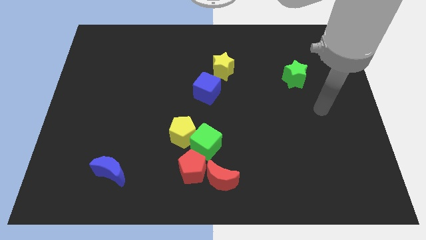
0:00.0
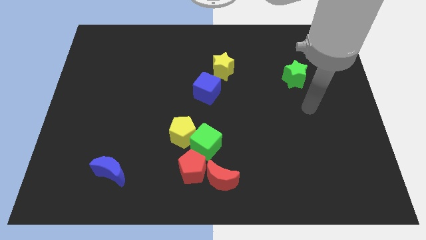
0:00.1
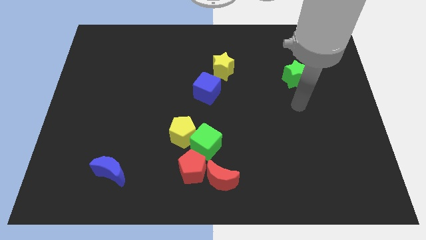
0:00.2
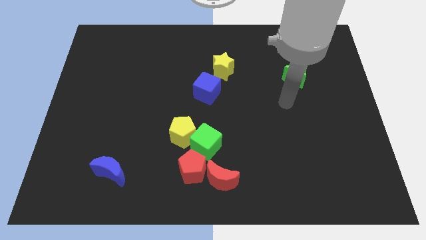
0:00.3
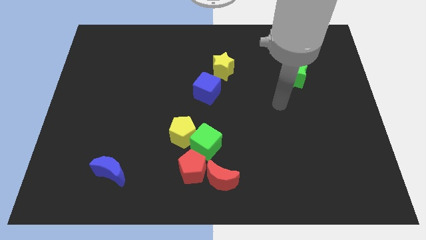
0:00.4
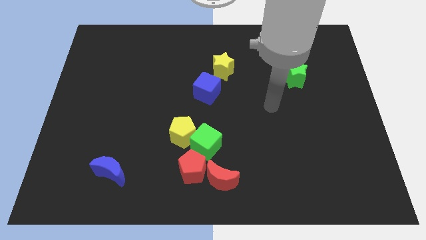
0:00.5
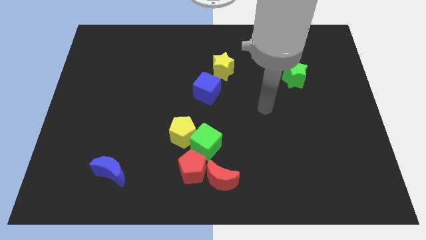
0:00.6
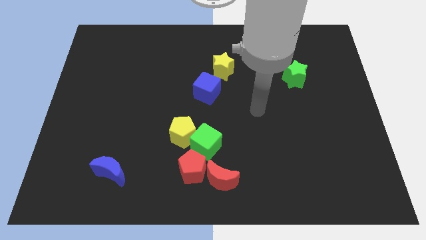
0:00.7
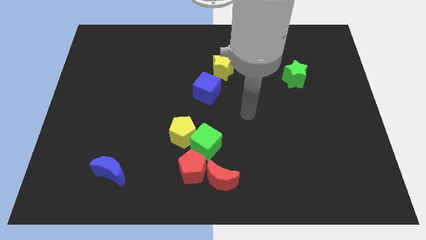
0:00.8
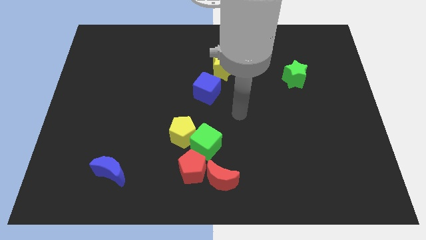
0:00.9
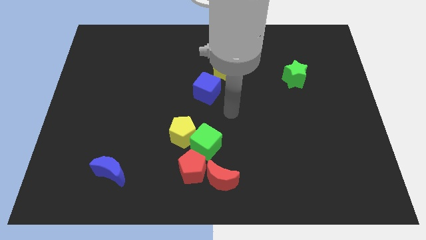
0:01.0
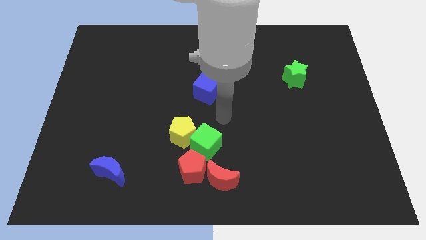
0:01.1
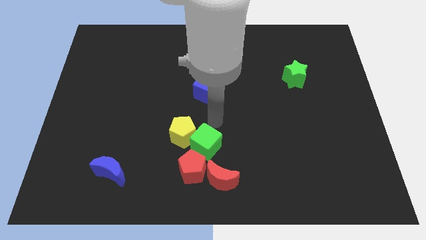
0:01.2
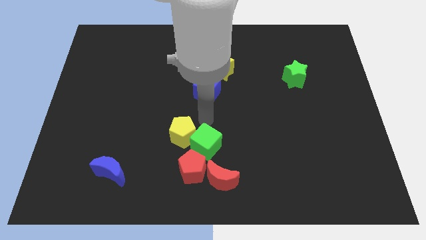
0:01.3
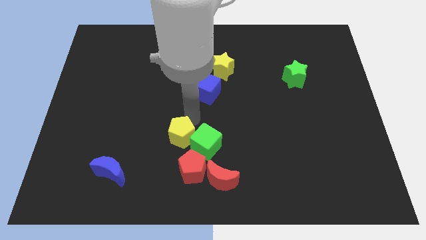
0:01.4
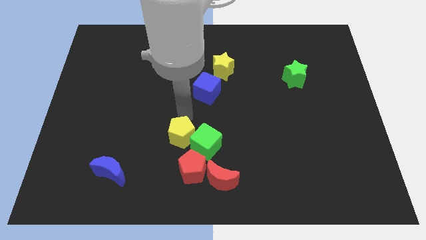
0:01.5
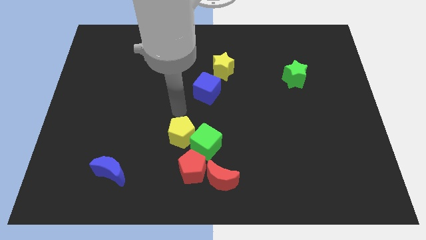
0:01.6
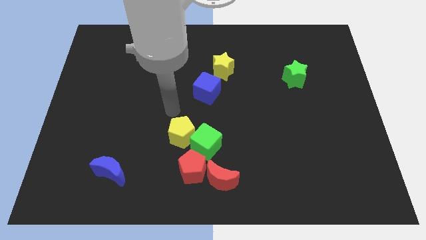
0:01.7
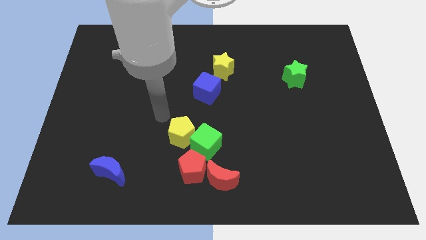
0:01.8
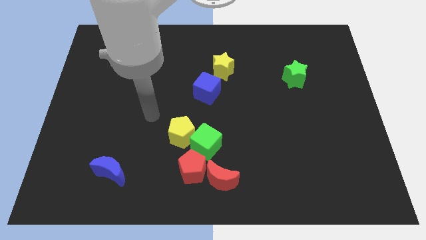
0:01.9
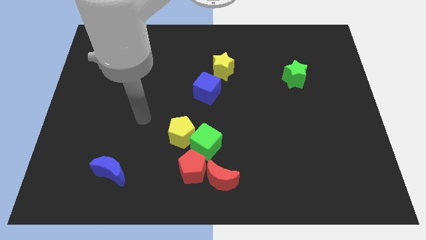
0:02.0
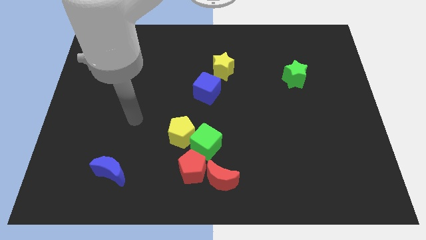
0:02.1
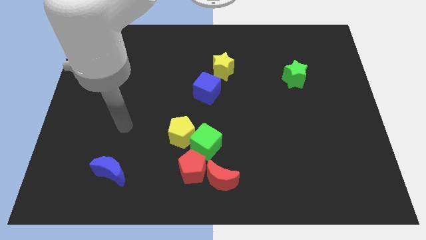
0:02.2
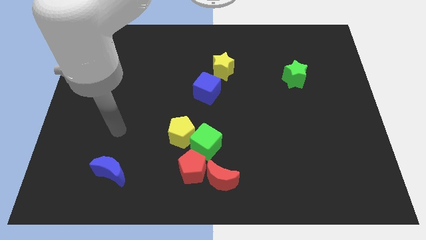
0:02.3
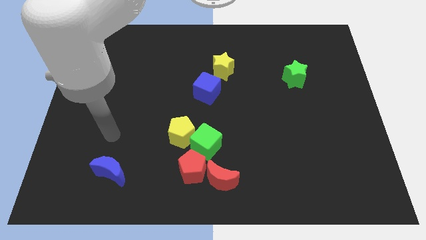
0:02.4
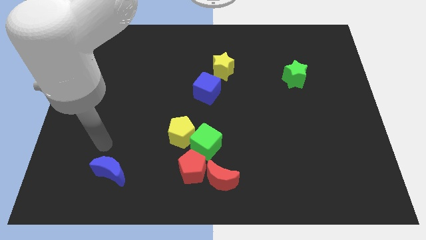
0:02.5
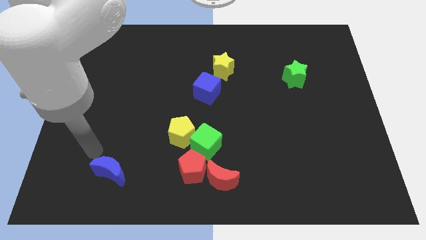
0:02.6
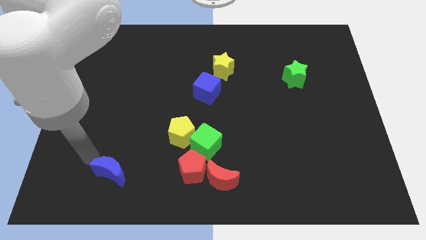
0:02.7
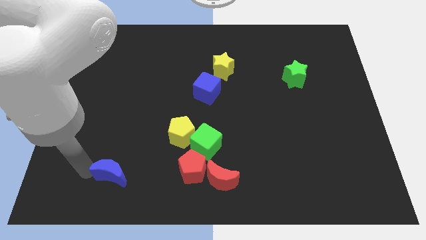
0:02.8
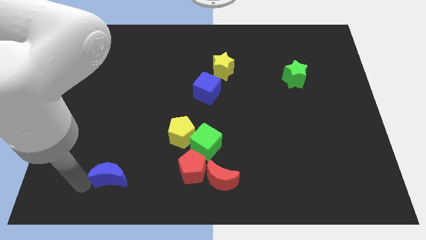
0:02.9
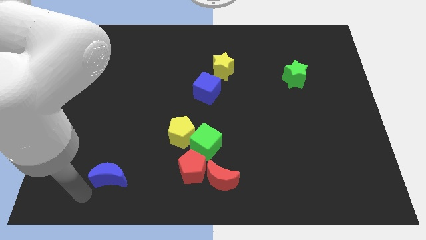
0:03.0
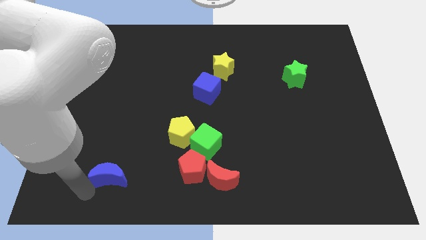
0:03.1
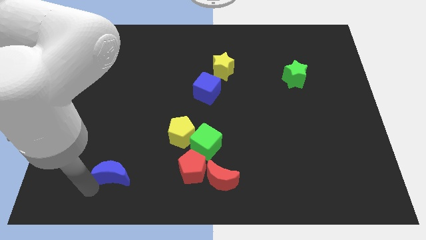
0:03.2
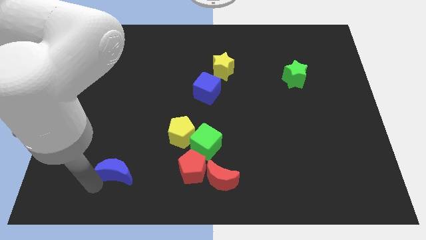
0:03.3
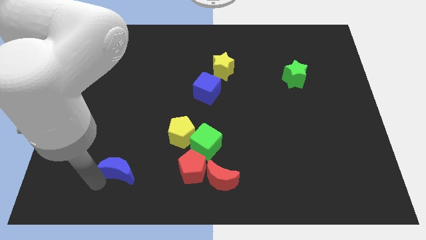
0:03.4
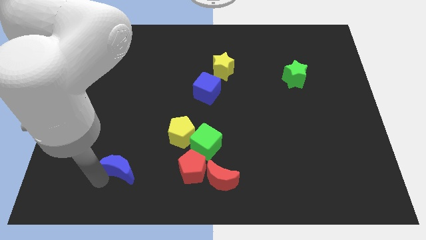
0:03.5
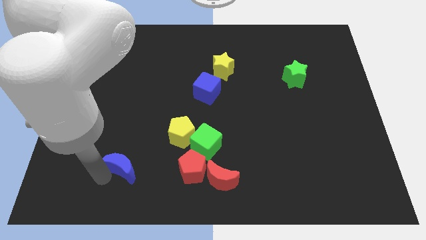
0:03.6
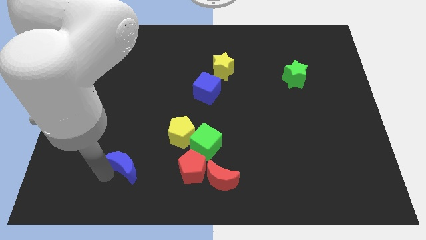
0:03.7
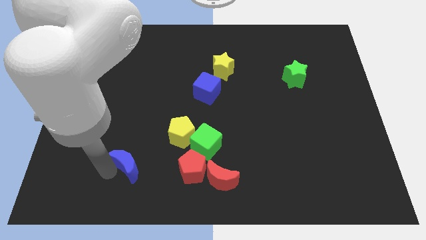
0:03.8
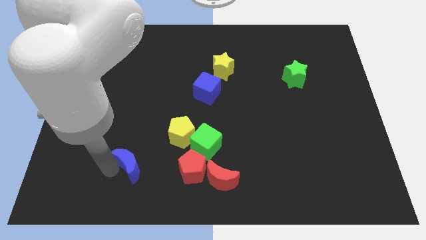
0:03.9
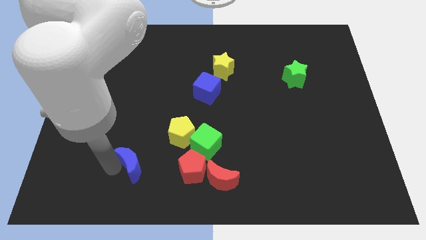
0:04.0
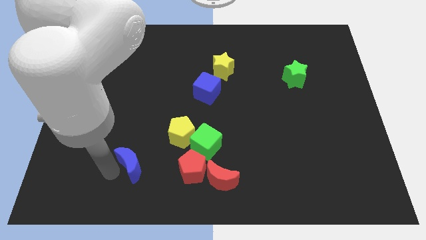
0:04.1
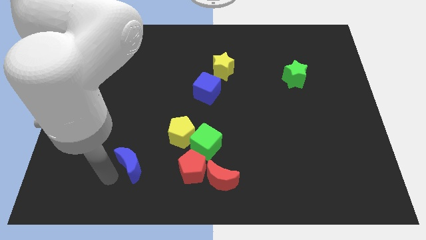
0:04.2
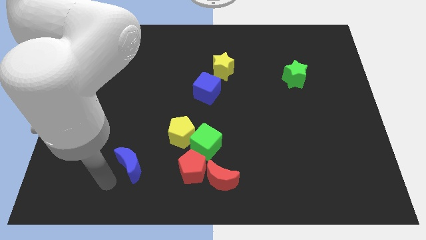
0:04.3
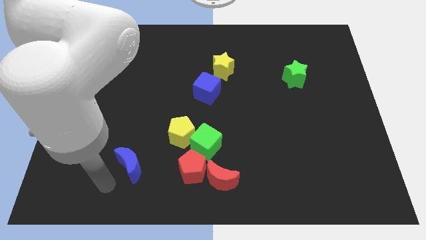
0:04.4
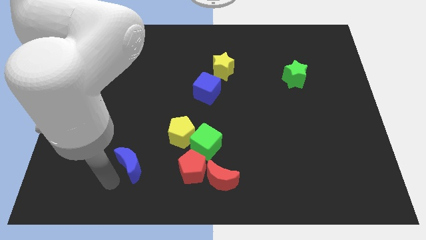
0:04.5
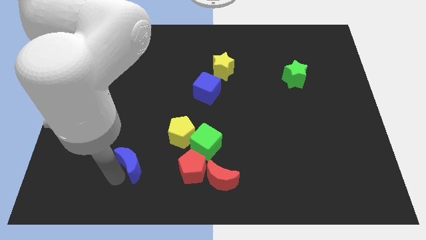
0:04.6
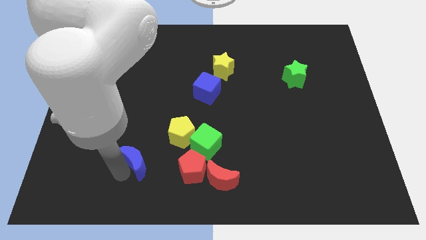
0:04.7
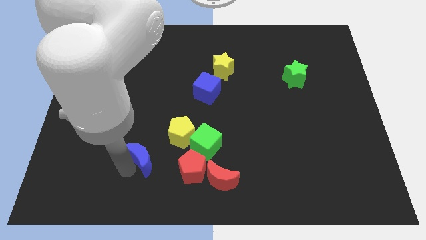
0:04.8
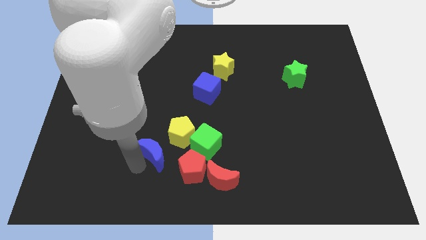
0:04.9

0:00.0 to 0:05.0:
push the blue moon a bit diagonally up and right

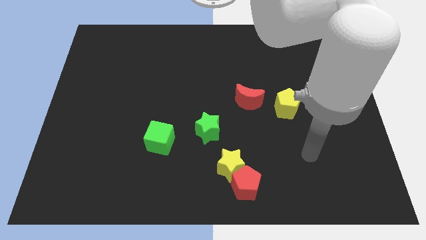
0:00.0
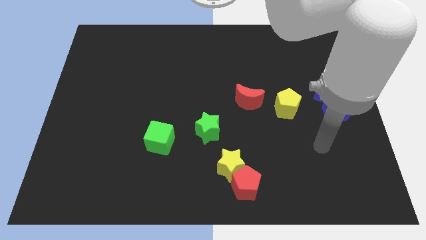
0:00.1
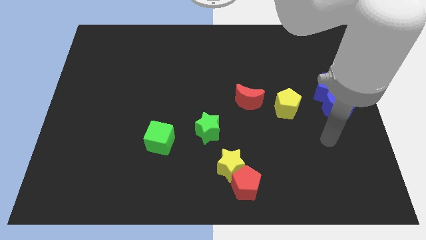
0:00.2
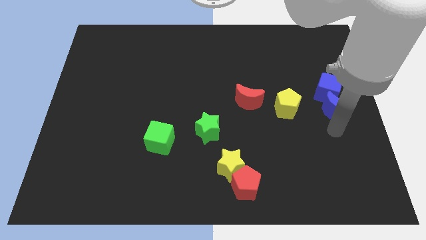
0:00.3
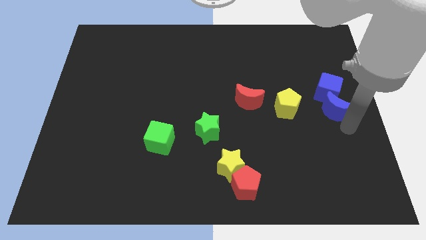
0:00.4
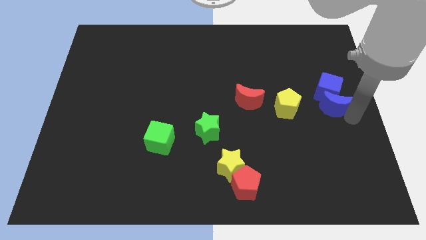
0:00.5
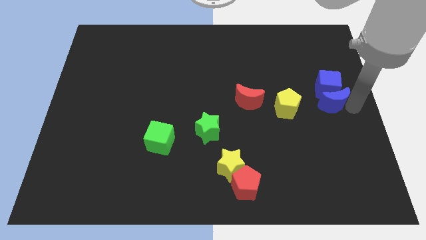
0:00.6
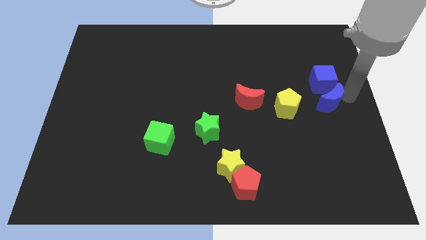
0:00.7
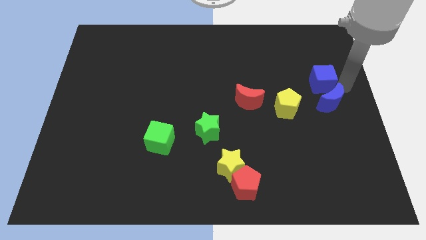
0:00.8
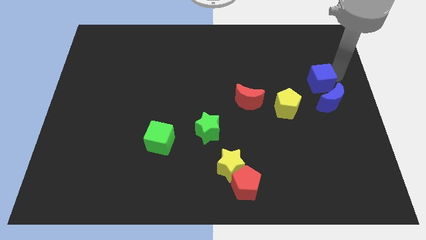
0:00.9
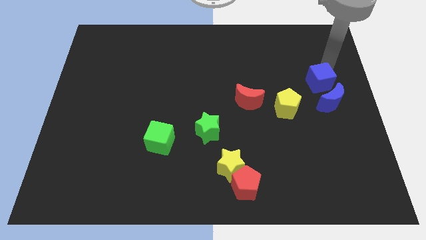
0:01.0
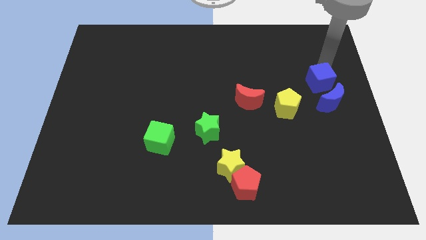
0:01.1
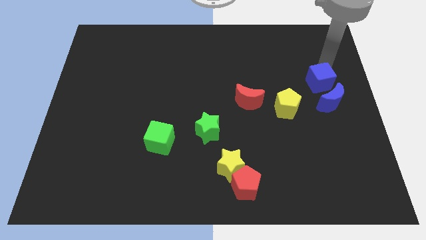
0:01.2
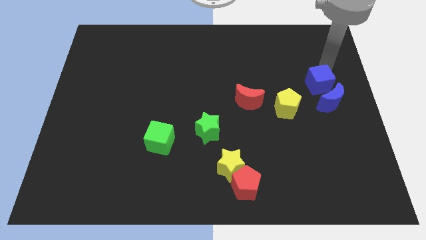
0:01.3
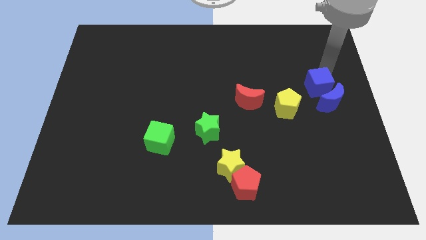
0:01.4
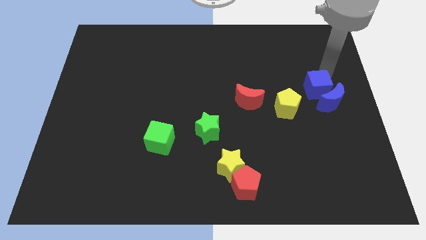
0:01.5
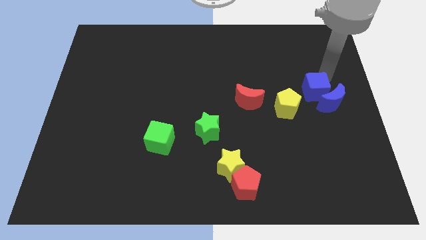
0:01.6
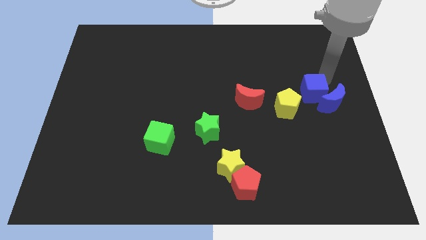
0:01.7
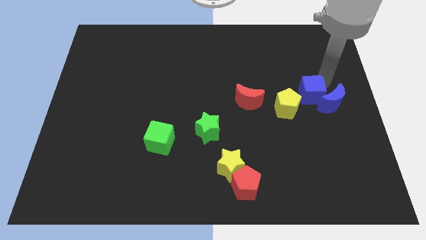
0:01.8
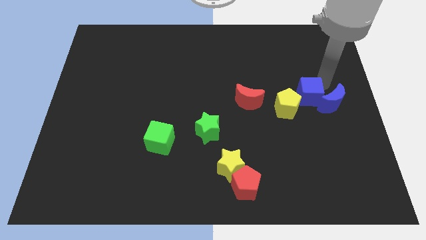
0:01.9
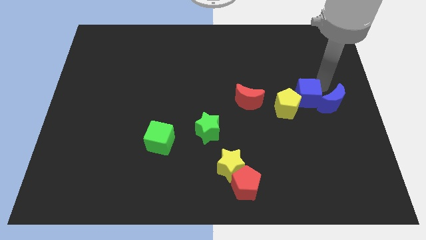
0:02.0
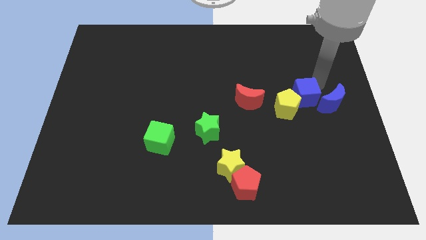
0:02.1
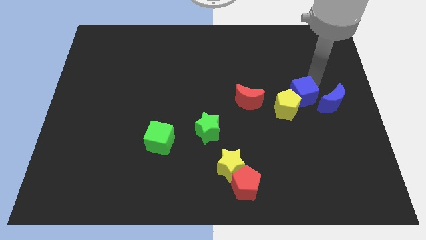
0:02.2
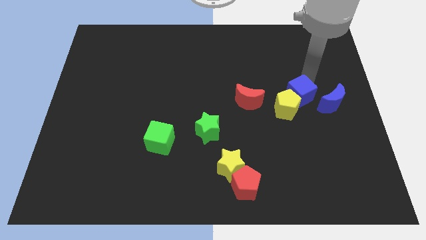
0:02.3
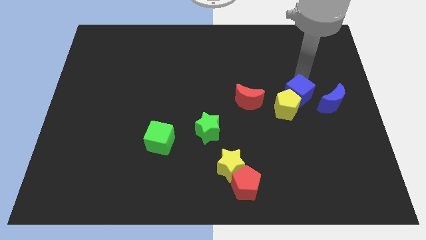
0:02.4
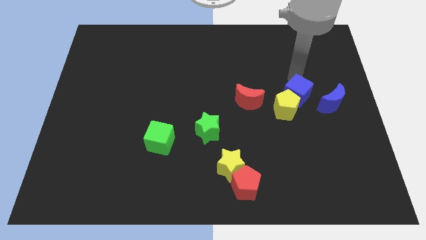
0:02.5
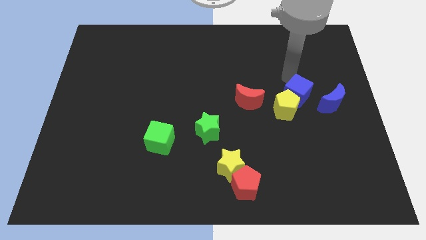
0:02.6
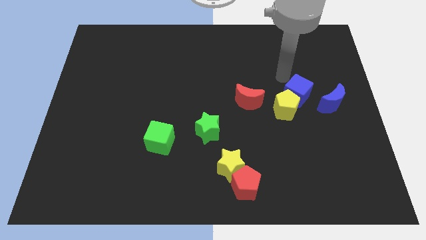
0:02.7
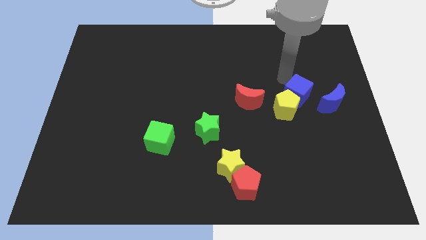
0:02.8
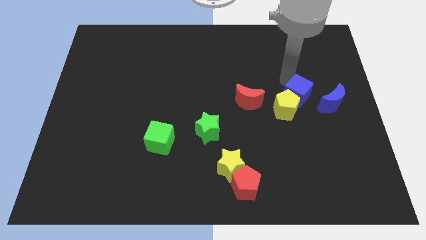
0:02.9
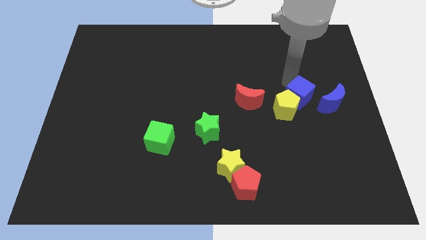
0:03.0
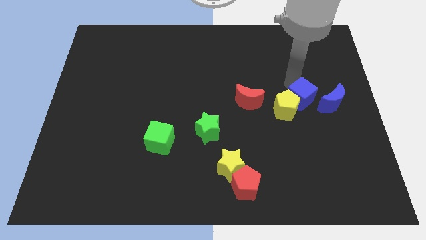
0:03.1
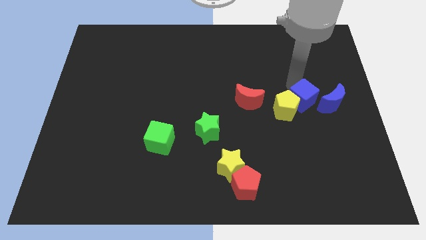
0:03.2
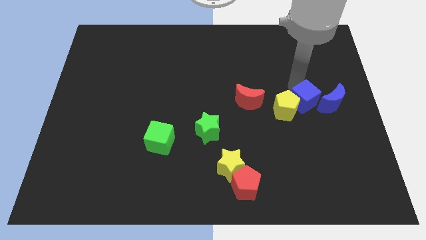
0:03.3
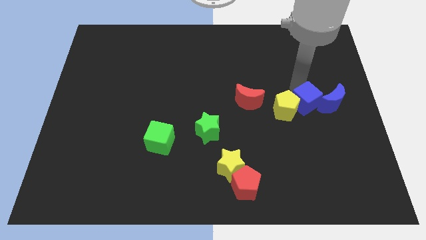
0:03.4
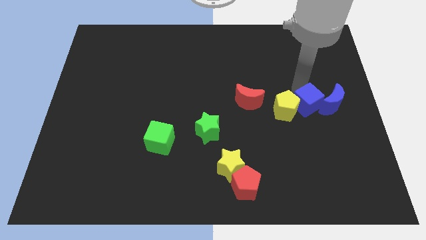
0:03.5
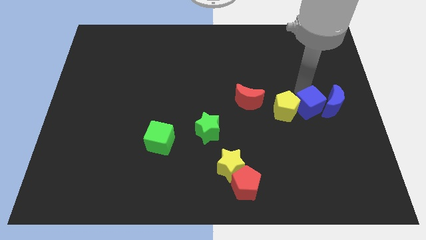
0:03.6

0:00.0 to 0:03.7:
move the blue cube a little downwards and left diagonally

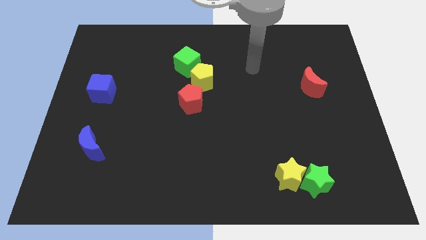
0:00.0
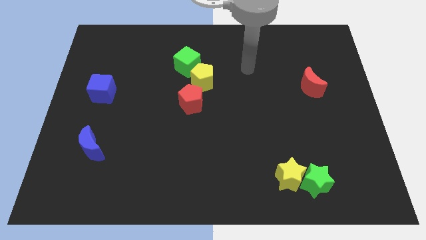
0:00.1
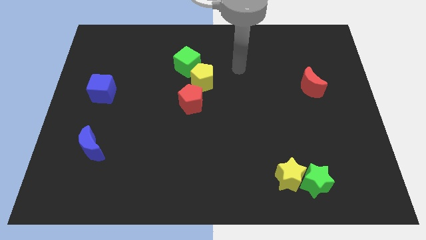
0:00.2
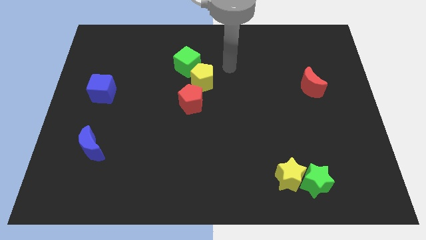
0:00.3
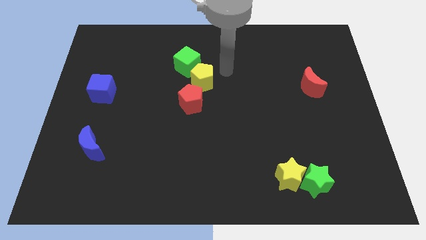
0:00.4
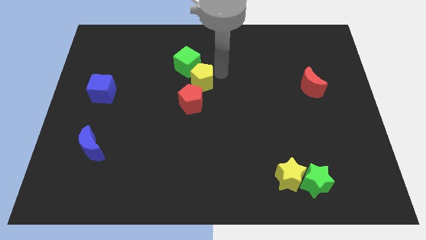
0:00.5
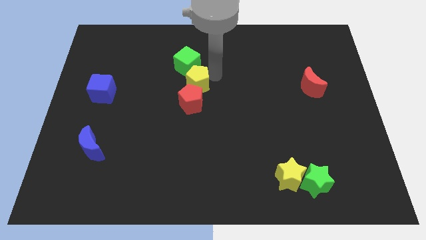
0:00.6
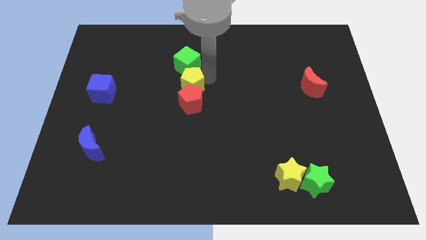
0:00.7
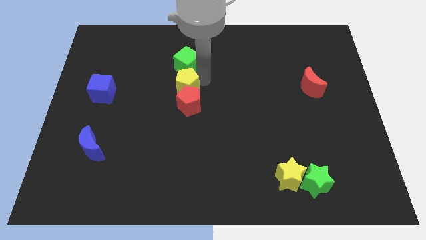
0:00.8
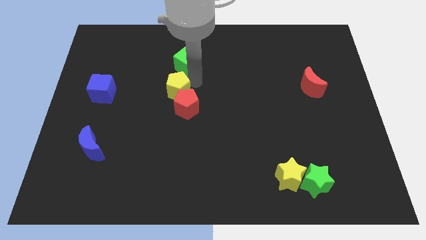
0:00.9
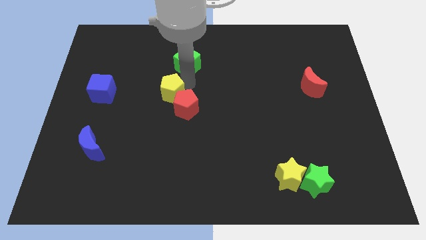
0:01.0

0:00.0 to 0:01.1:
slide the yellow pentagon slightly diagonally down and to the left
